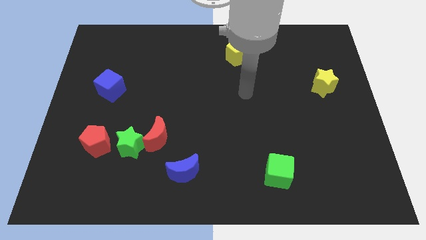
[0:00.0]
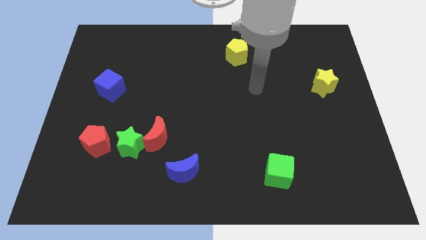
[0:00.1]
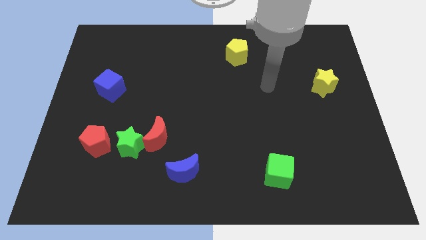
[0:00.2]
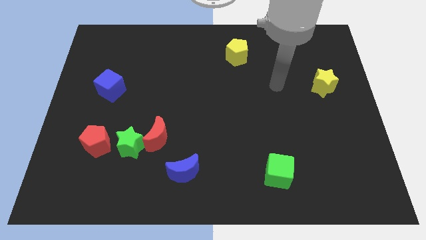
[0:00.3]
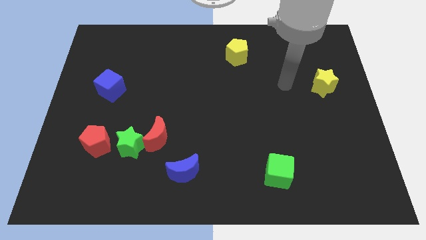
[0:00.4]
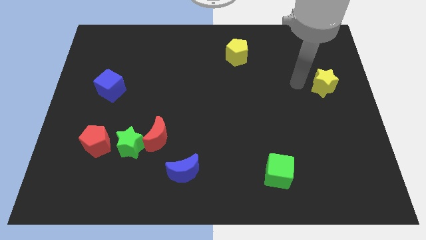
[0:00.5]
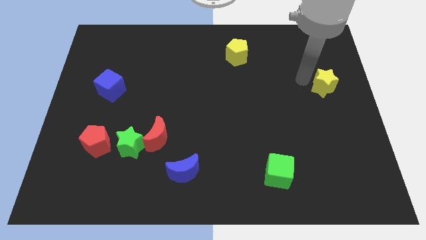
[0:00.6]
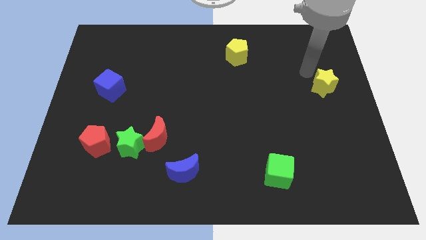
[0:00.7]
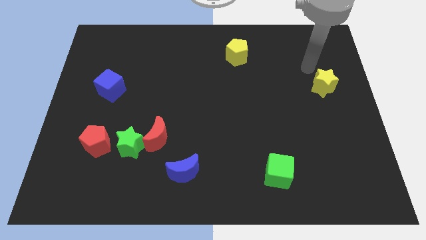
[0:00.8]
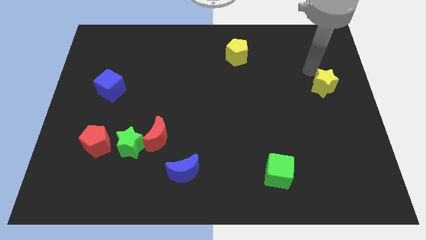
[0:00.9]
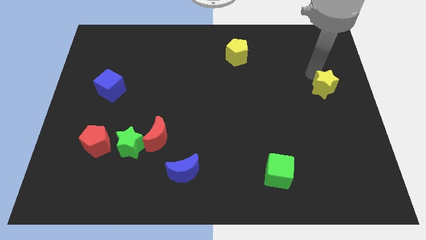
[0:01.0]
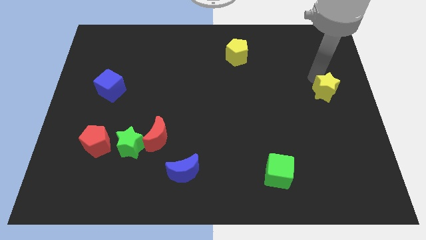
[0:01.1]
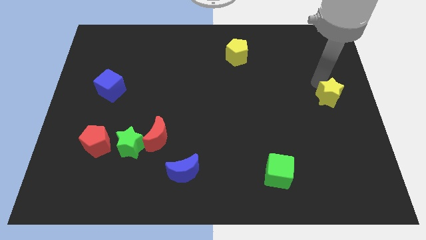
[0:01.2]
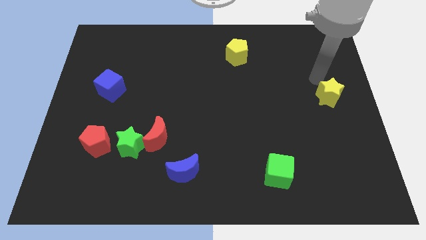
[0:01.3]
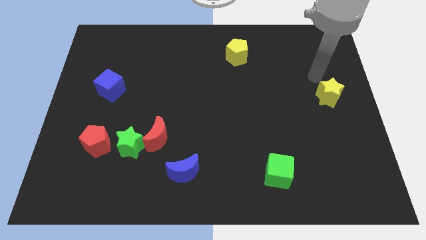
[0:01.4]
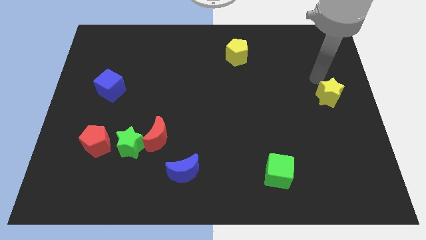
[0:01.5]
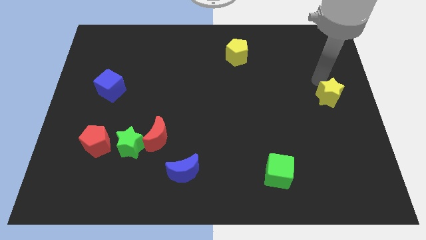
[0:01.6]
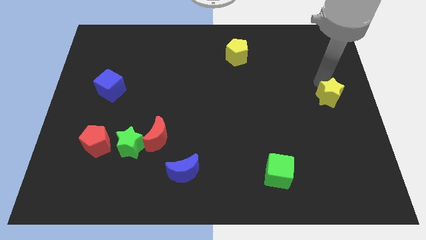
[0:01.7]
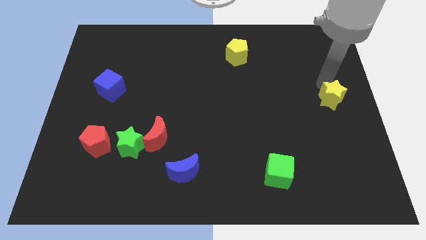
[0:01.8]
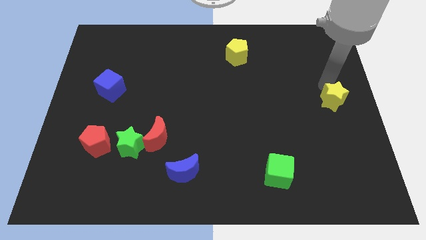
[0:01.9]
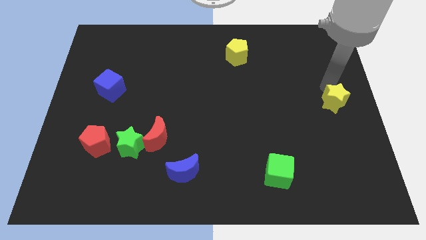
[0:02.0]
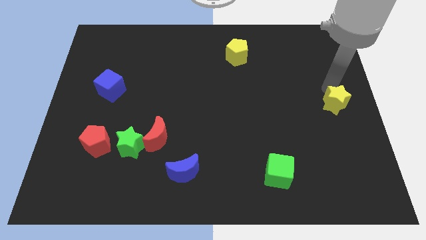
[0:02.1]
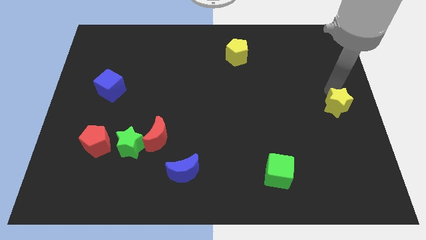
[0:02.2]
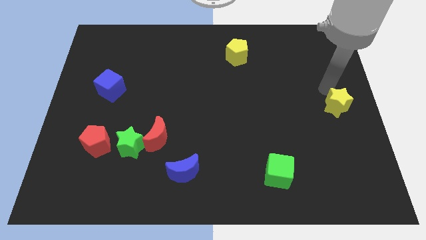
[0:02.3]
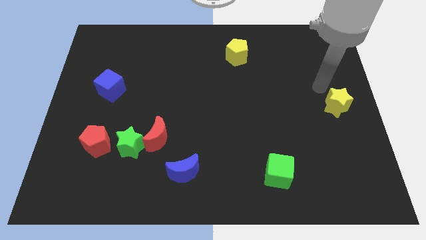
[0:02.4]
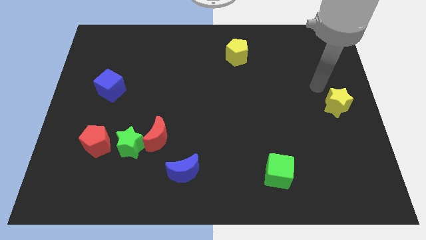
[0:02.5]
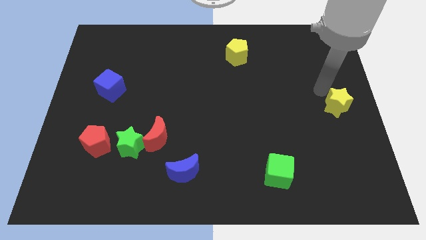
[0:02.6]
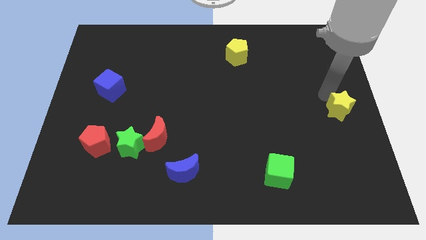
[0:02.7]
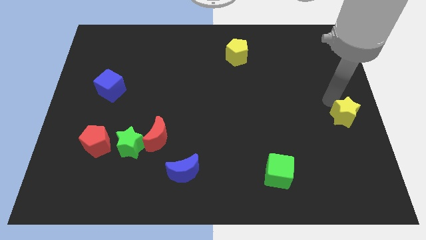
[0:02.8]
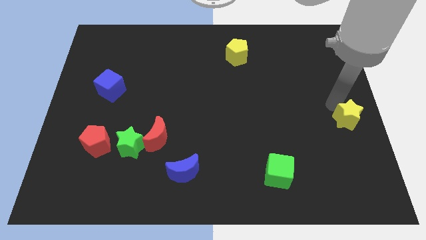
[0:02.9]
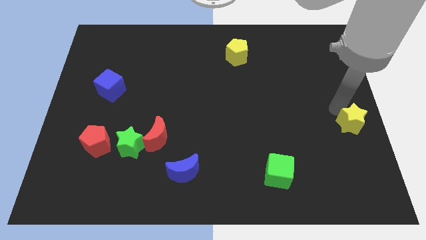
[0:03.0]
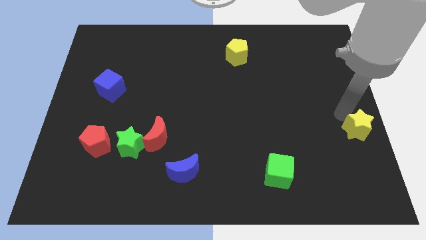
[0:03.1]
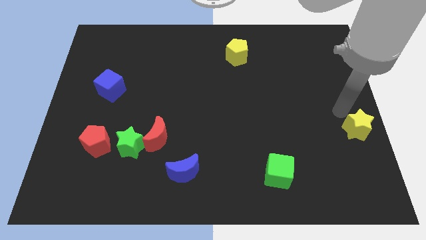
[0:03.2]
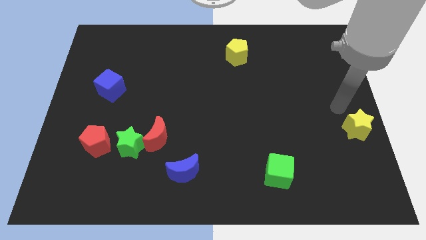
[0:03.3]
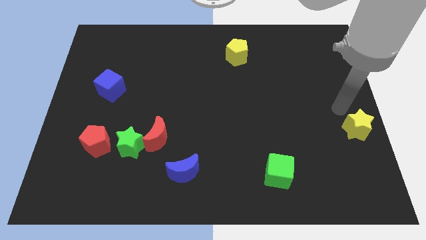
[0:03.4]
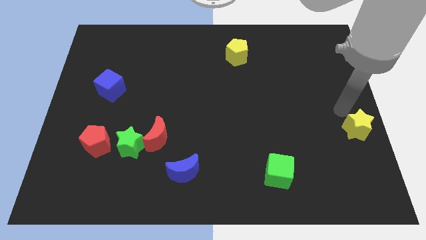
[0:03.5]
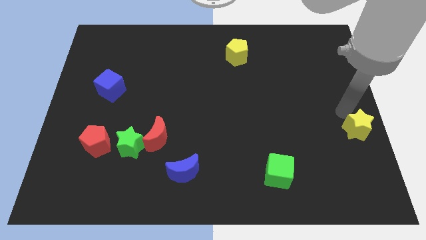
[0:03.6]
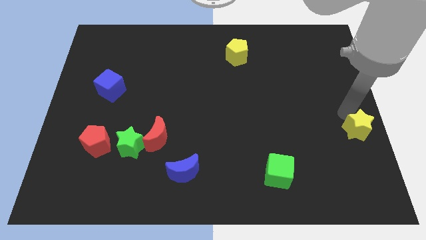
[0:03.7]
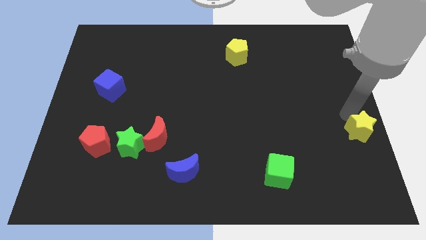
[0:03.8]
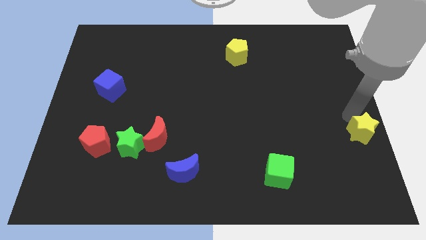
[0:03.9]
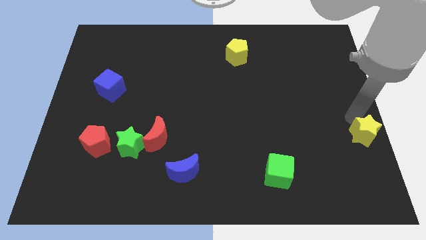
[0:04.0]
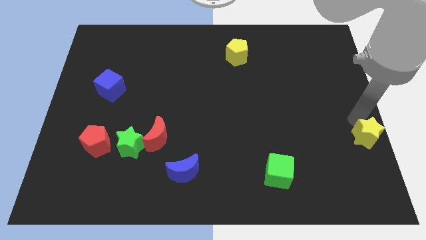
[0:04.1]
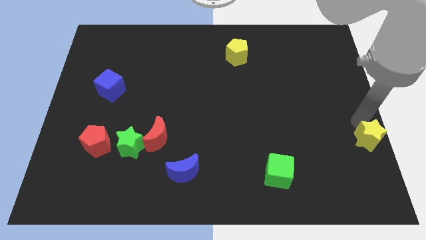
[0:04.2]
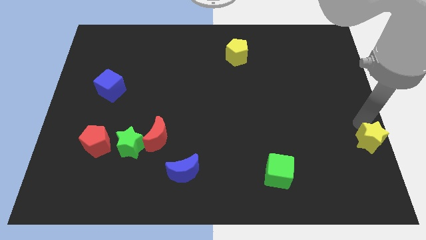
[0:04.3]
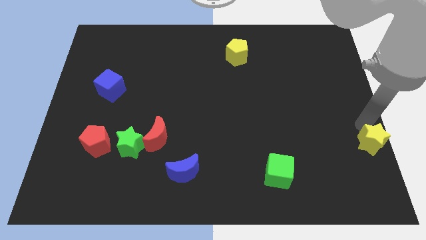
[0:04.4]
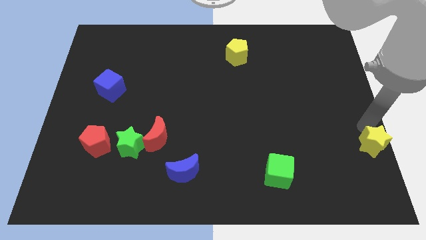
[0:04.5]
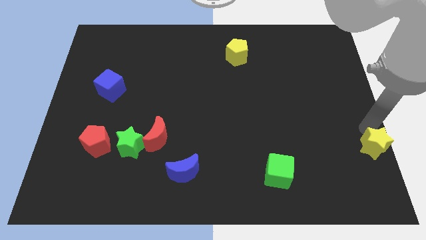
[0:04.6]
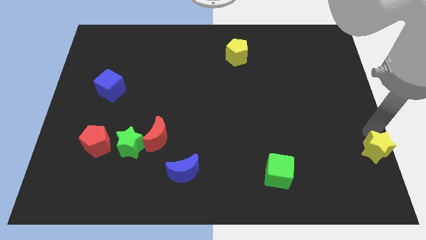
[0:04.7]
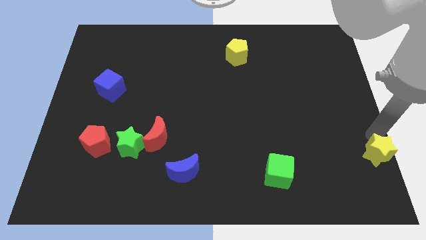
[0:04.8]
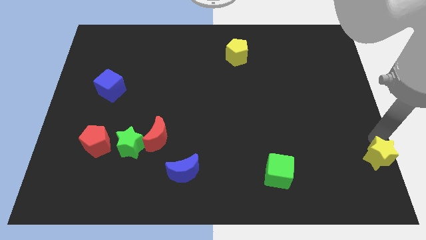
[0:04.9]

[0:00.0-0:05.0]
push the yellow star to the bottom right

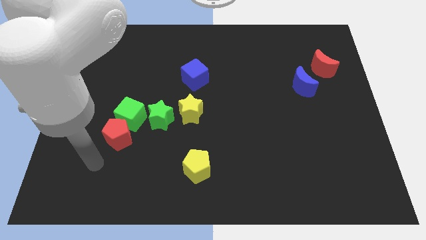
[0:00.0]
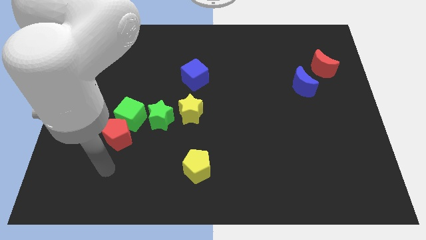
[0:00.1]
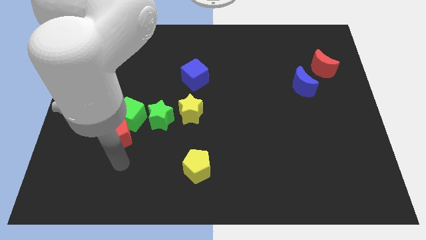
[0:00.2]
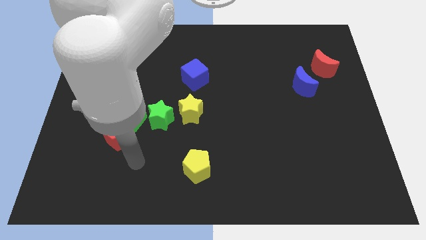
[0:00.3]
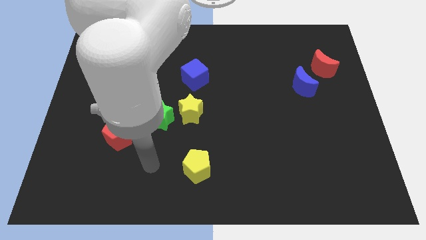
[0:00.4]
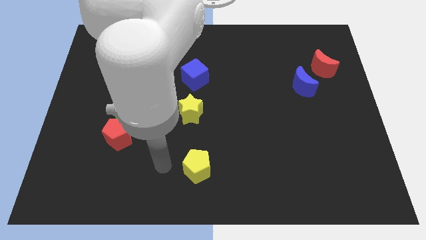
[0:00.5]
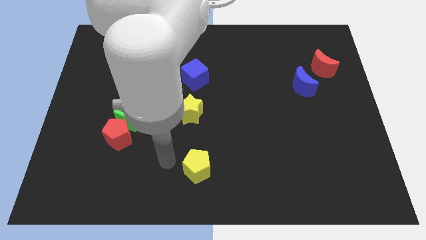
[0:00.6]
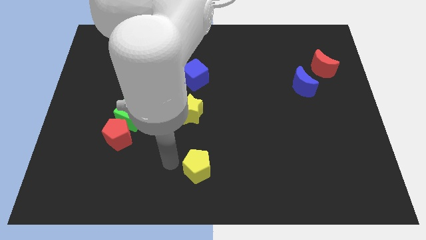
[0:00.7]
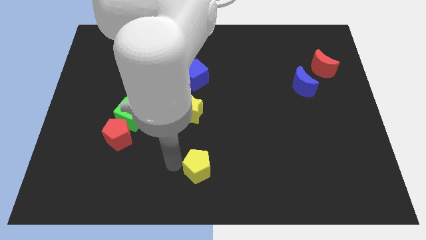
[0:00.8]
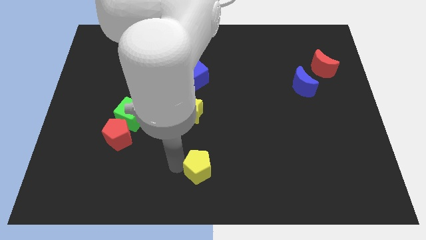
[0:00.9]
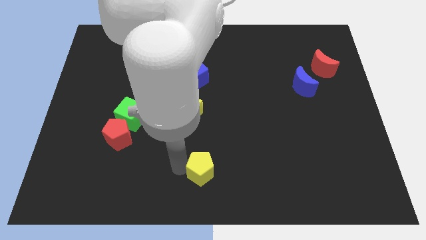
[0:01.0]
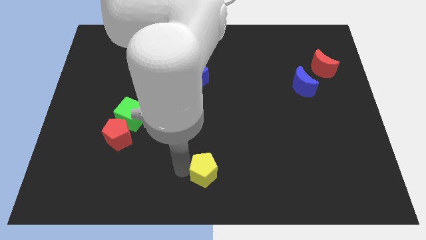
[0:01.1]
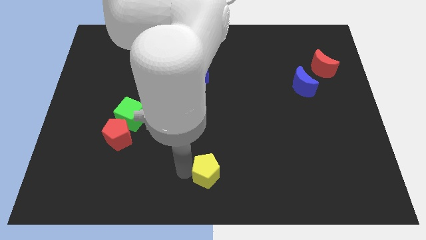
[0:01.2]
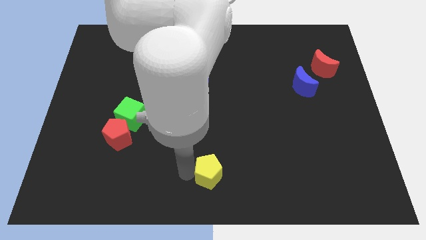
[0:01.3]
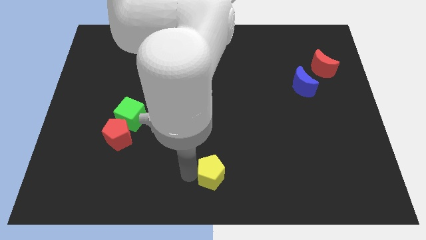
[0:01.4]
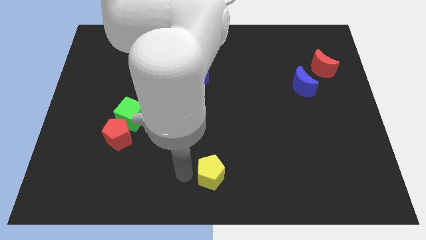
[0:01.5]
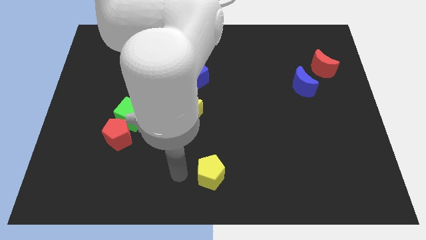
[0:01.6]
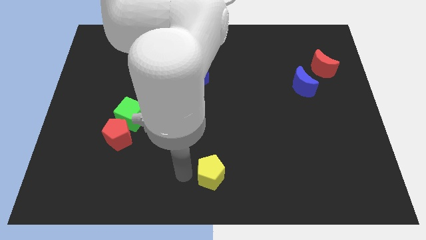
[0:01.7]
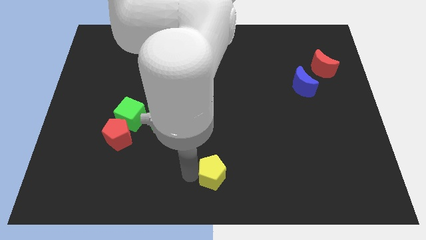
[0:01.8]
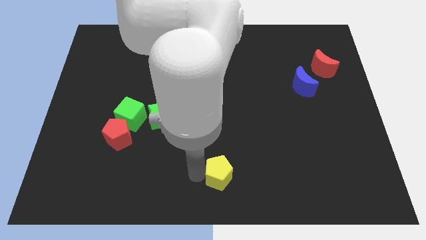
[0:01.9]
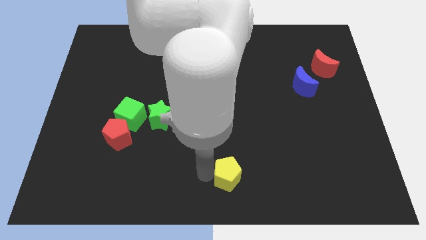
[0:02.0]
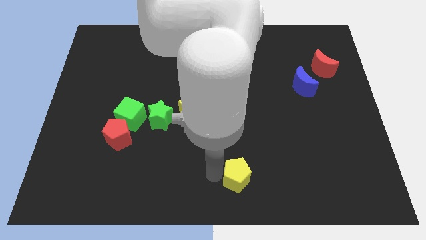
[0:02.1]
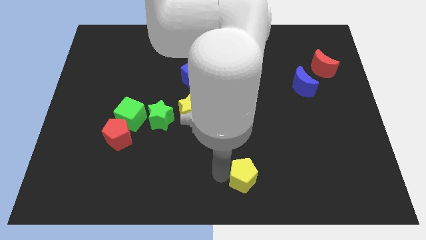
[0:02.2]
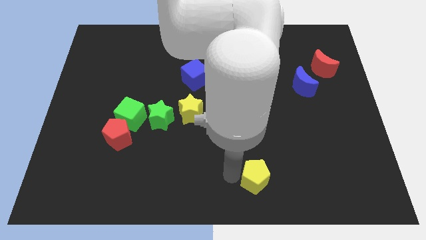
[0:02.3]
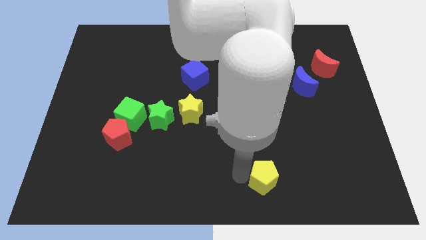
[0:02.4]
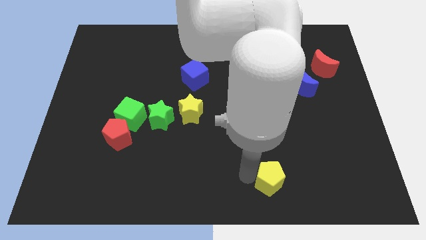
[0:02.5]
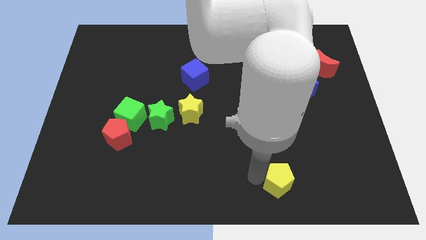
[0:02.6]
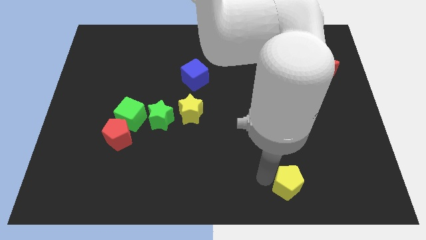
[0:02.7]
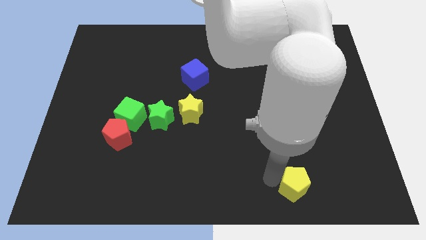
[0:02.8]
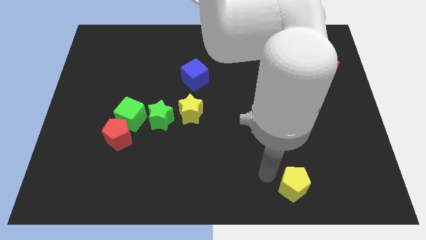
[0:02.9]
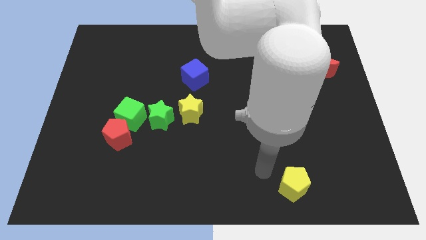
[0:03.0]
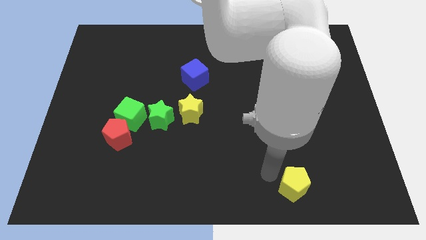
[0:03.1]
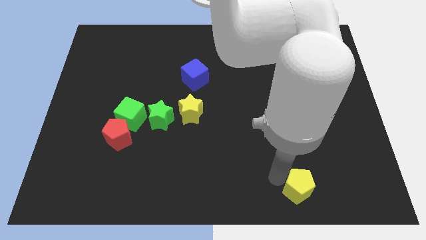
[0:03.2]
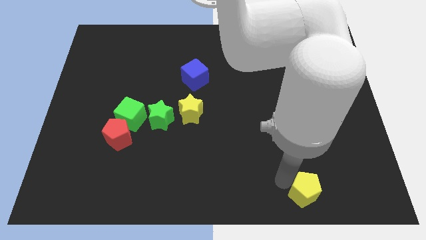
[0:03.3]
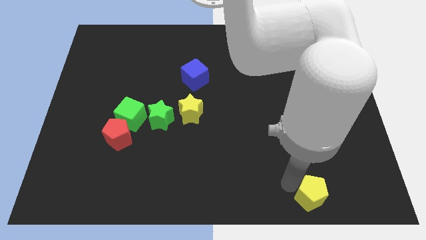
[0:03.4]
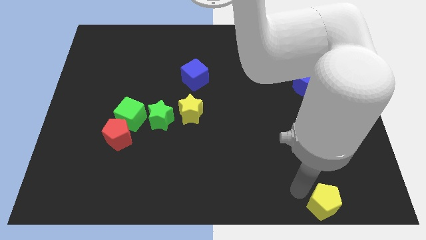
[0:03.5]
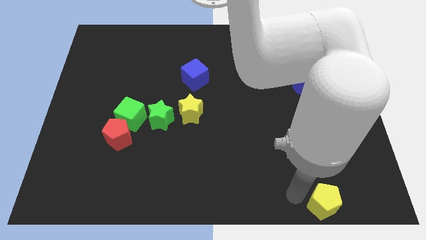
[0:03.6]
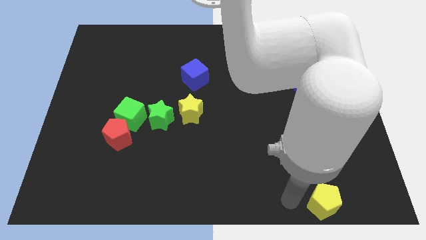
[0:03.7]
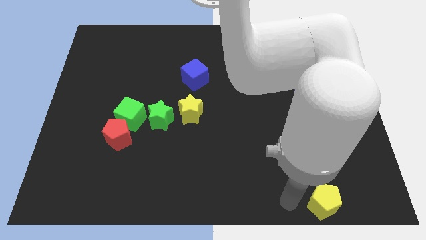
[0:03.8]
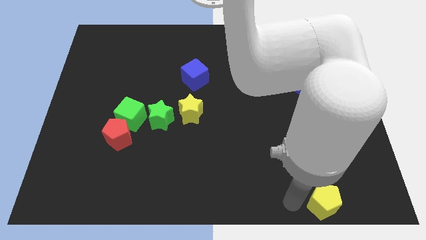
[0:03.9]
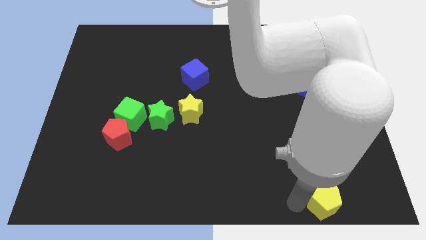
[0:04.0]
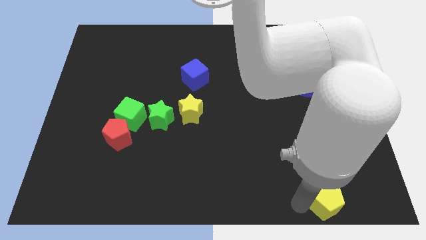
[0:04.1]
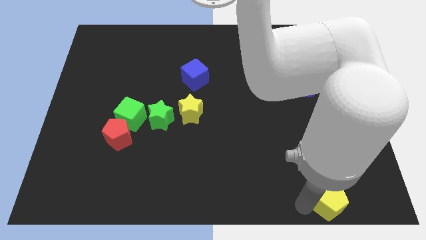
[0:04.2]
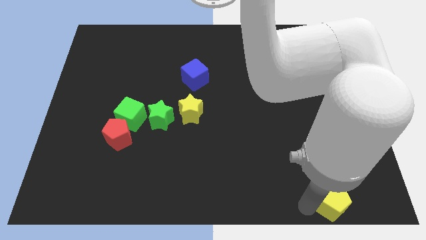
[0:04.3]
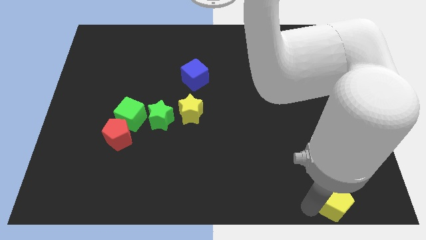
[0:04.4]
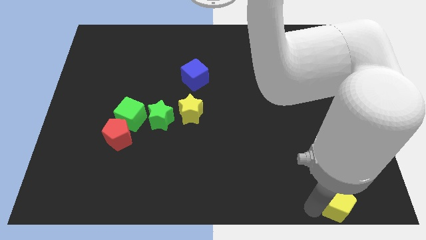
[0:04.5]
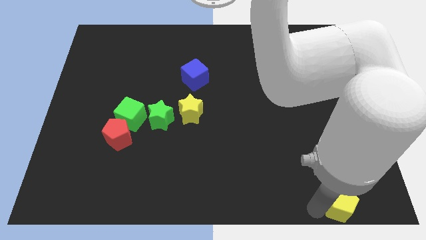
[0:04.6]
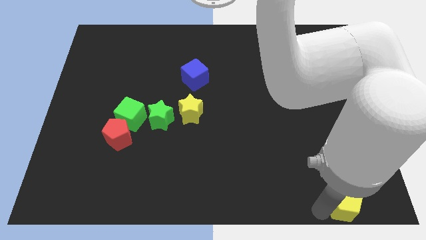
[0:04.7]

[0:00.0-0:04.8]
move the yellow pentagon to the bottom right
